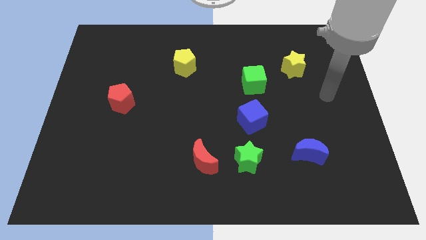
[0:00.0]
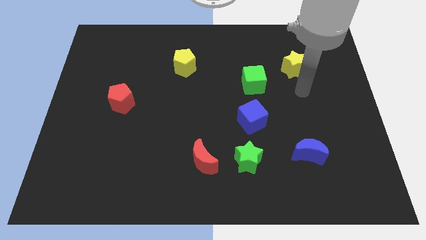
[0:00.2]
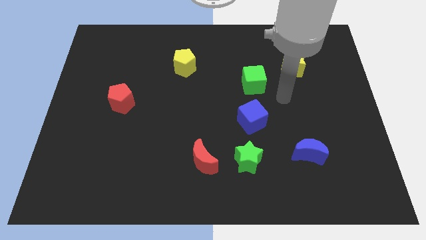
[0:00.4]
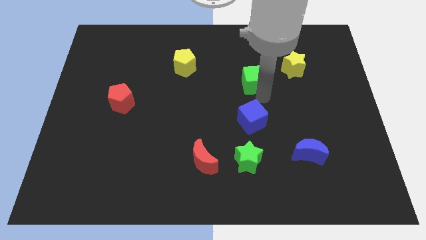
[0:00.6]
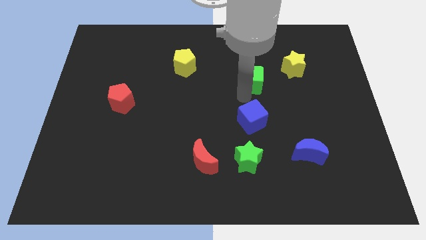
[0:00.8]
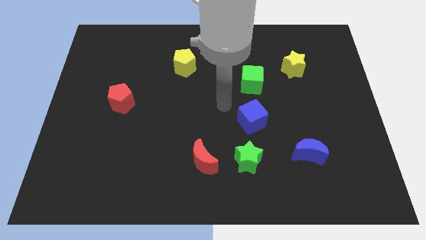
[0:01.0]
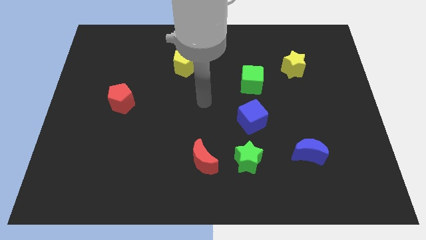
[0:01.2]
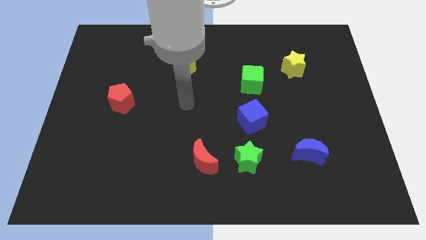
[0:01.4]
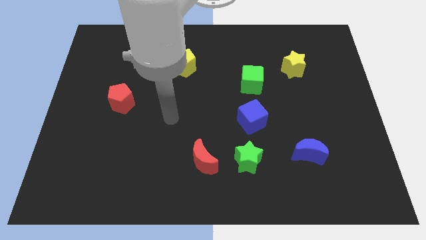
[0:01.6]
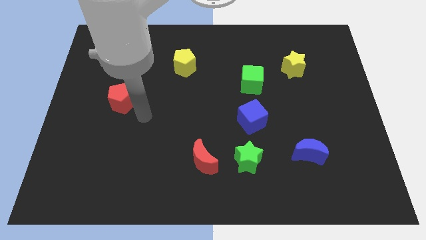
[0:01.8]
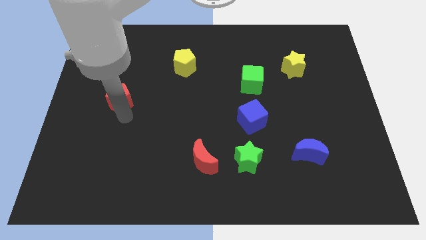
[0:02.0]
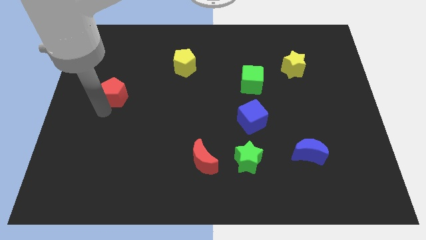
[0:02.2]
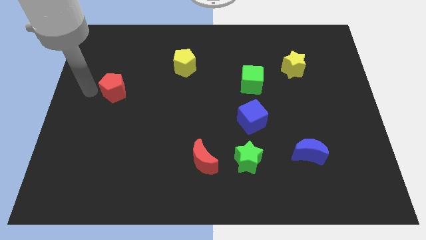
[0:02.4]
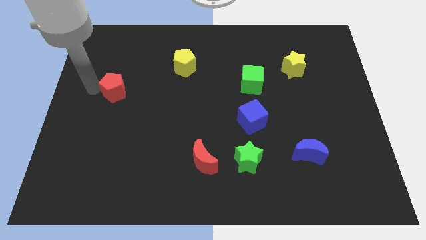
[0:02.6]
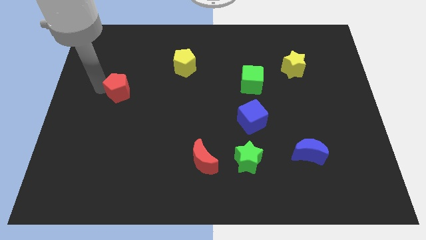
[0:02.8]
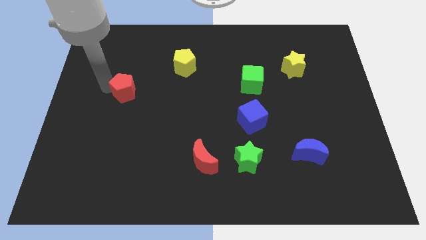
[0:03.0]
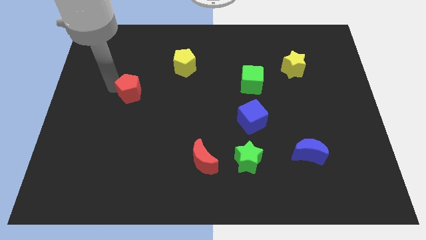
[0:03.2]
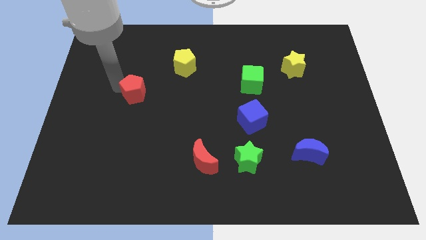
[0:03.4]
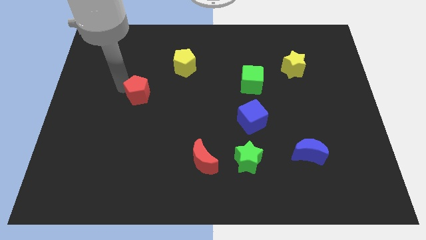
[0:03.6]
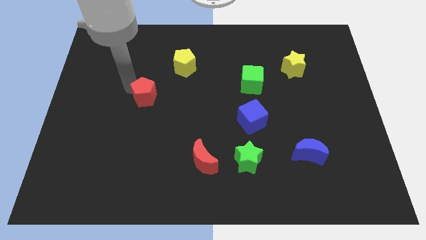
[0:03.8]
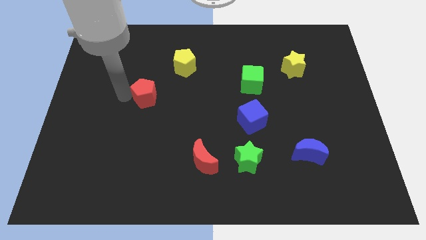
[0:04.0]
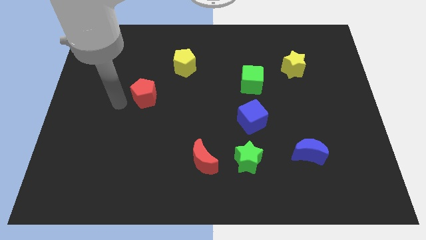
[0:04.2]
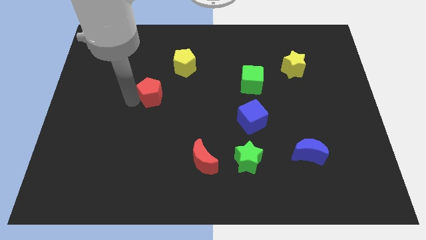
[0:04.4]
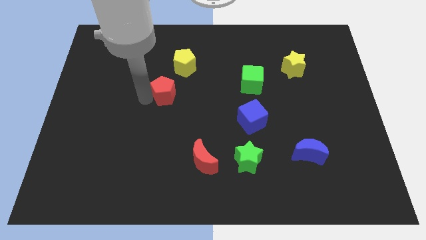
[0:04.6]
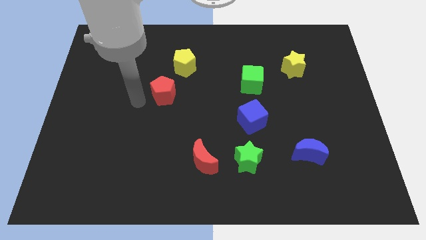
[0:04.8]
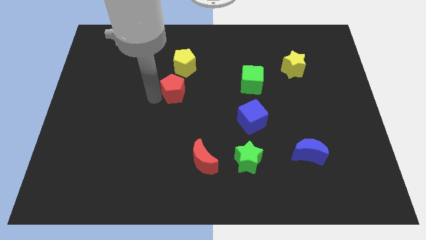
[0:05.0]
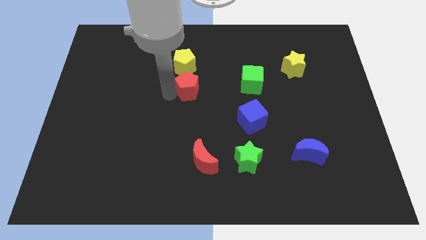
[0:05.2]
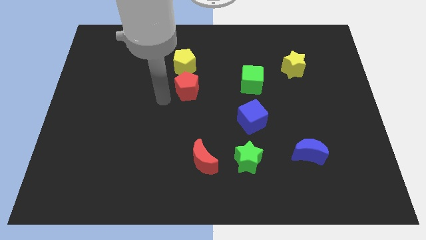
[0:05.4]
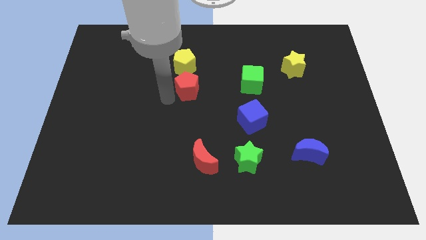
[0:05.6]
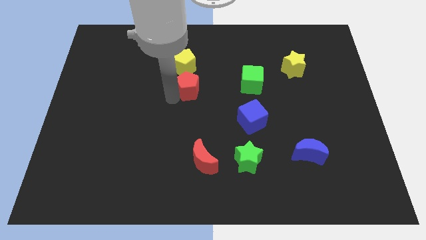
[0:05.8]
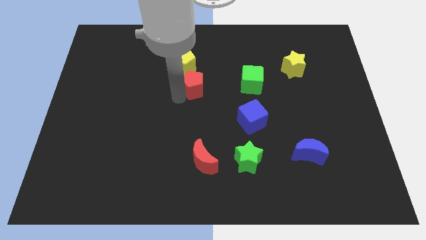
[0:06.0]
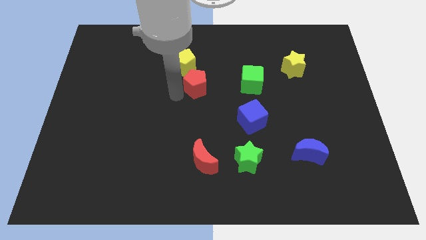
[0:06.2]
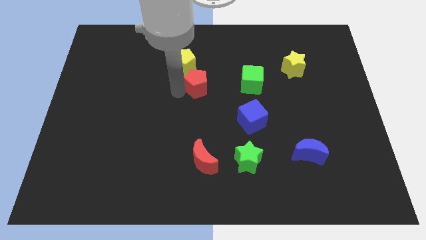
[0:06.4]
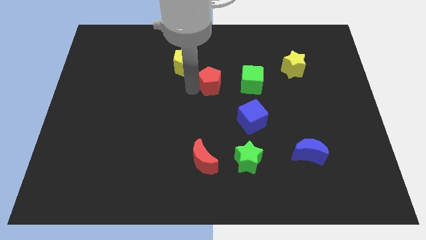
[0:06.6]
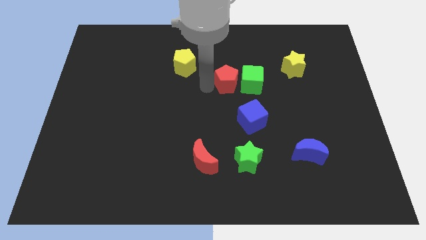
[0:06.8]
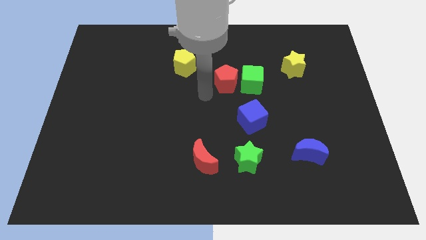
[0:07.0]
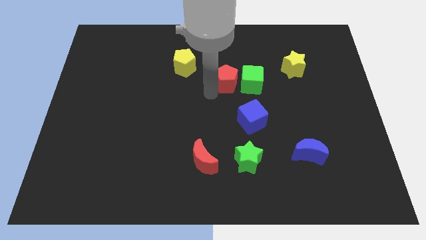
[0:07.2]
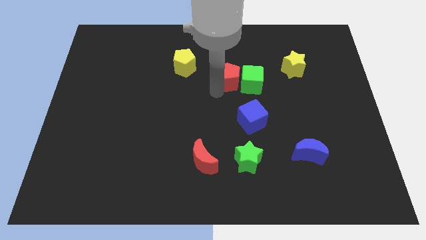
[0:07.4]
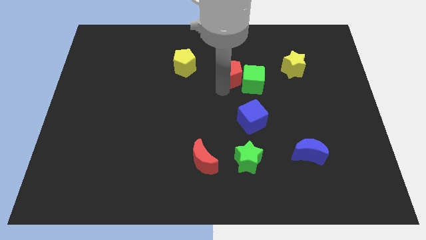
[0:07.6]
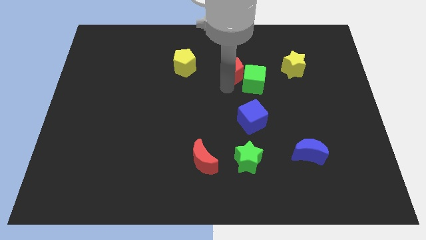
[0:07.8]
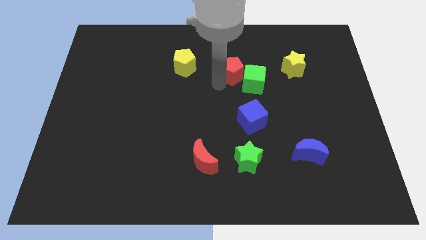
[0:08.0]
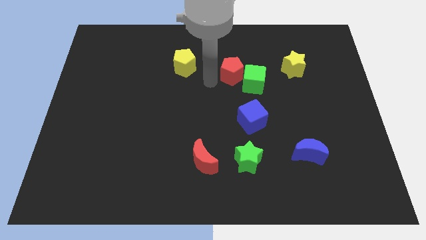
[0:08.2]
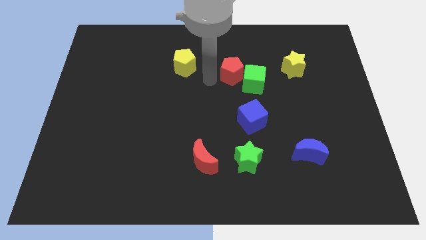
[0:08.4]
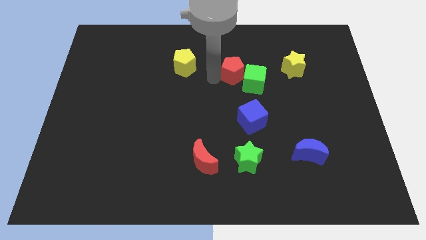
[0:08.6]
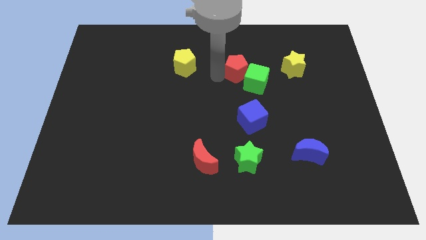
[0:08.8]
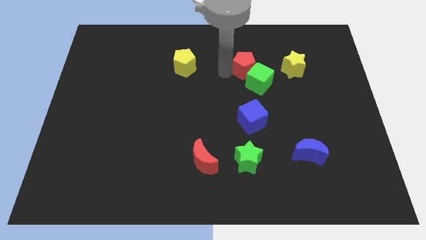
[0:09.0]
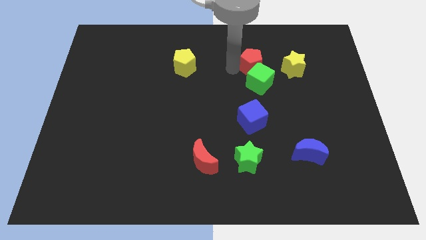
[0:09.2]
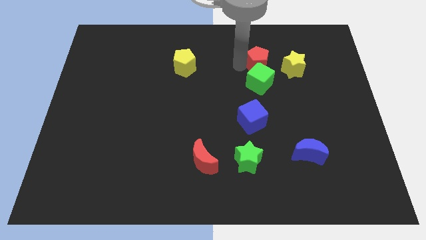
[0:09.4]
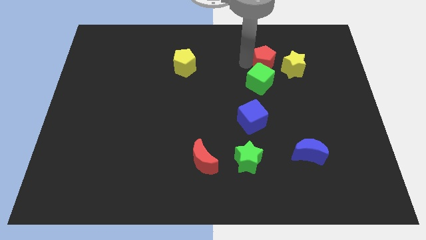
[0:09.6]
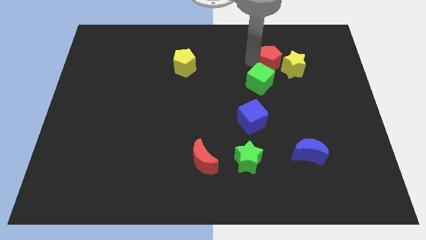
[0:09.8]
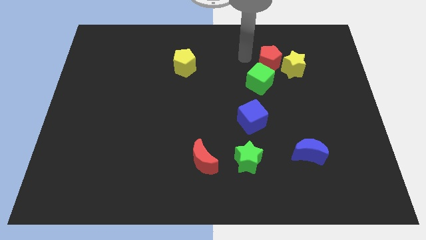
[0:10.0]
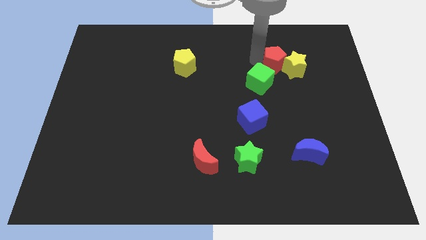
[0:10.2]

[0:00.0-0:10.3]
slide the red pentagon close to the yellow star

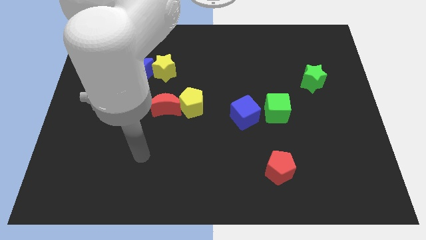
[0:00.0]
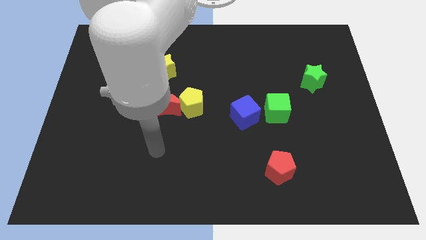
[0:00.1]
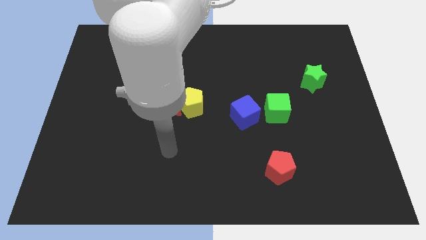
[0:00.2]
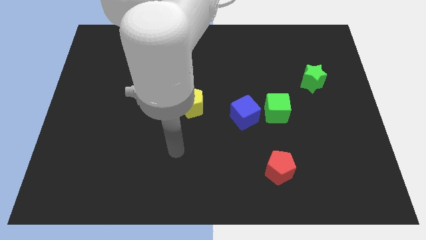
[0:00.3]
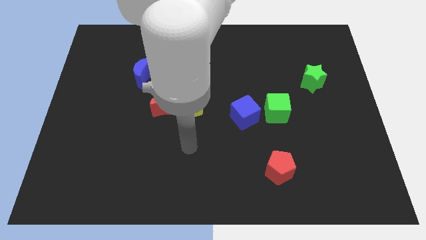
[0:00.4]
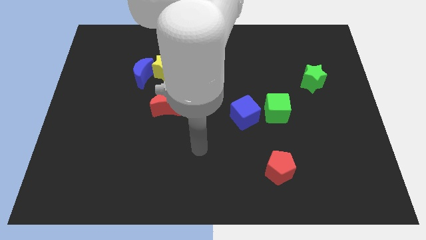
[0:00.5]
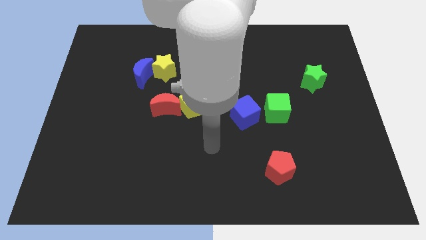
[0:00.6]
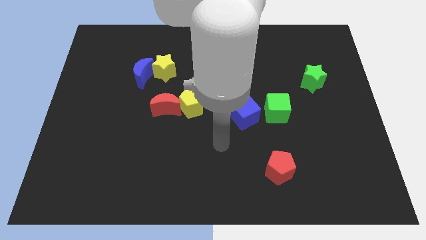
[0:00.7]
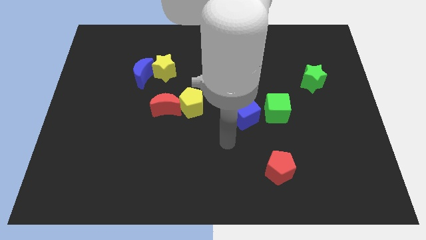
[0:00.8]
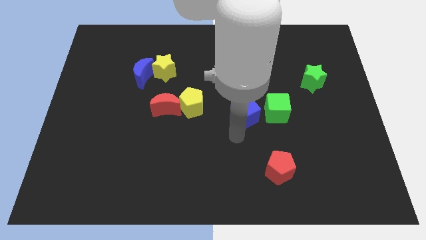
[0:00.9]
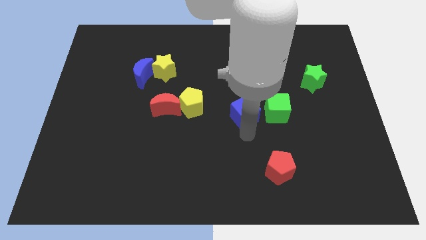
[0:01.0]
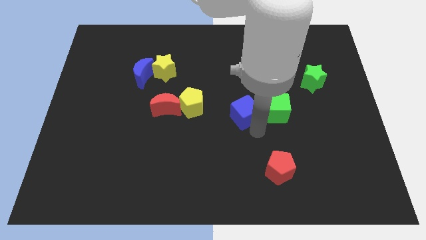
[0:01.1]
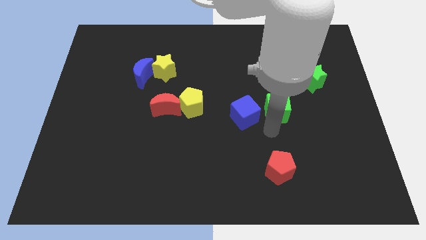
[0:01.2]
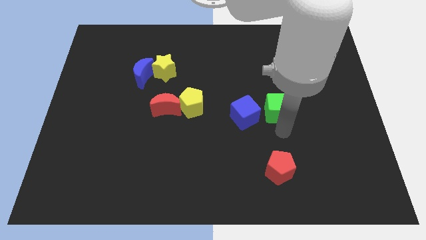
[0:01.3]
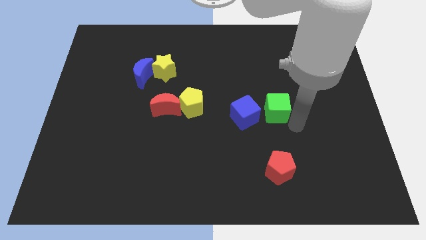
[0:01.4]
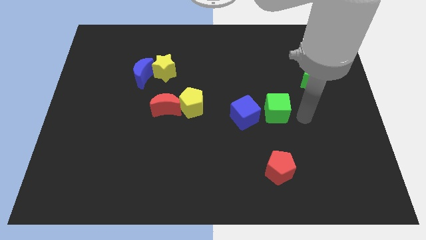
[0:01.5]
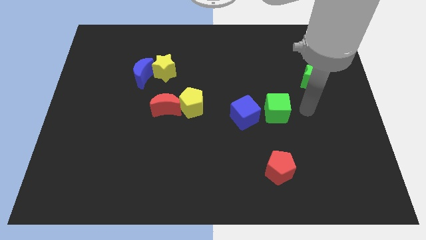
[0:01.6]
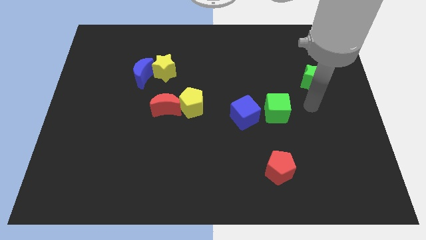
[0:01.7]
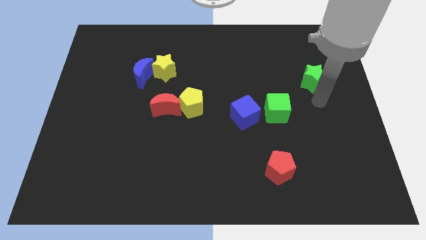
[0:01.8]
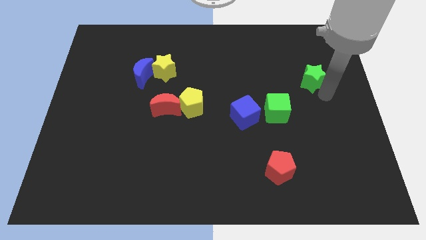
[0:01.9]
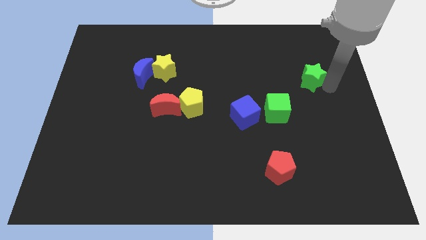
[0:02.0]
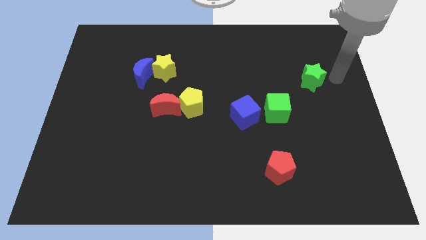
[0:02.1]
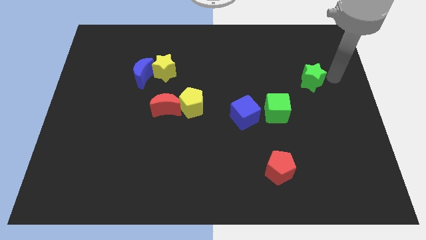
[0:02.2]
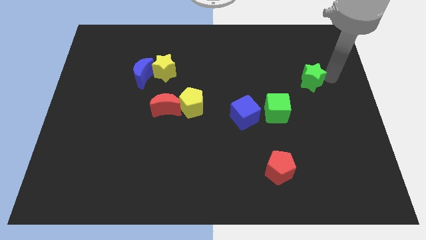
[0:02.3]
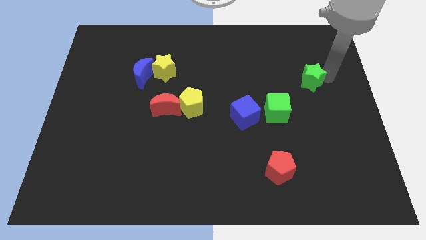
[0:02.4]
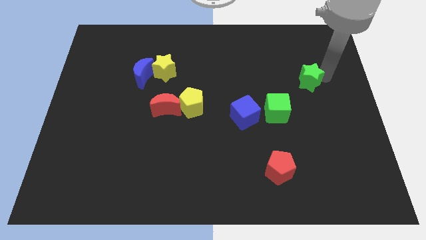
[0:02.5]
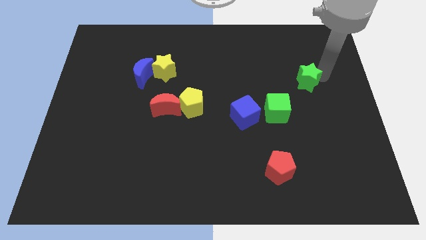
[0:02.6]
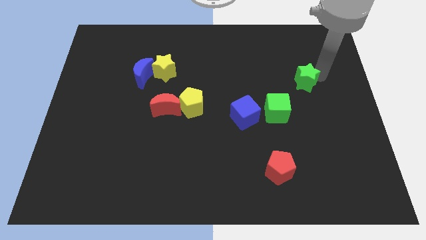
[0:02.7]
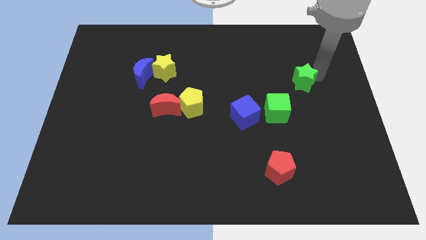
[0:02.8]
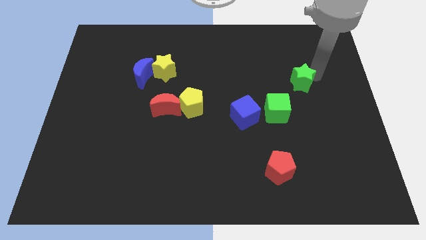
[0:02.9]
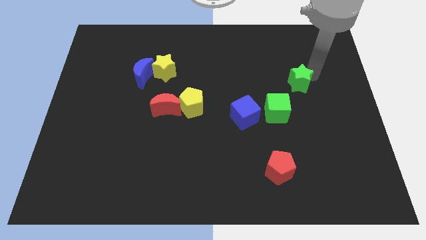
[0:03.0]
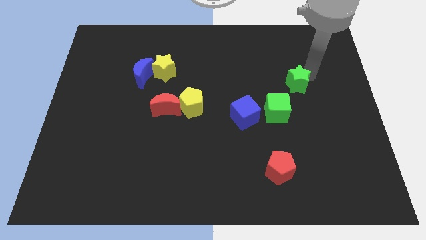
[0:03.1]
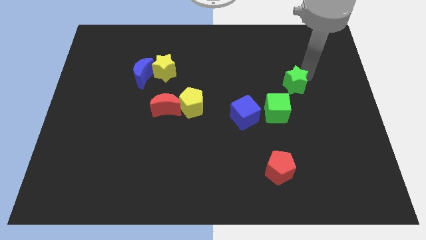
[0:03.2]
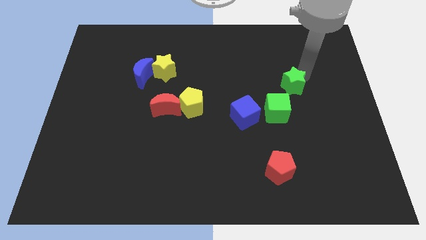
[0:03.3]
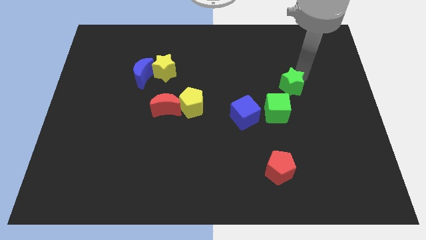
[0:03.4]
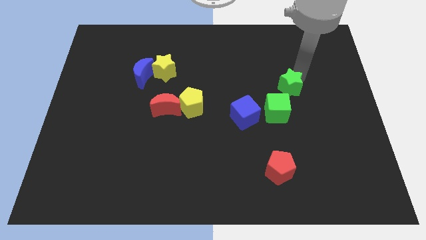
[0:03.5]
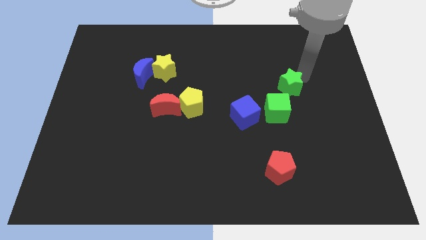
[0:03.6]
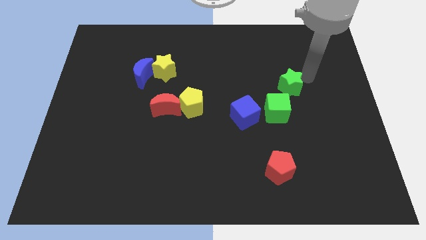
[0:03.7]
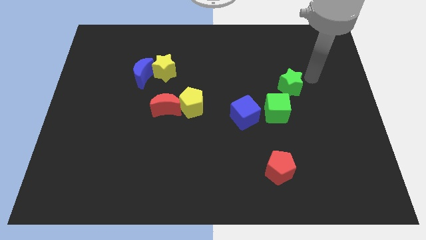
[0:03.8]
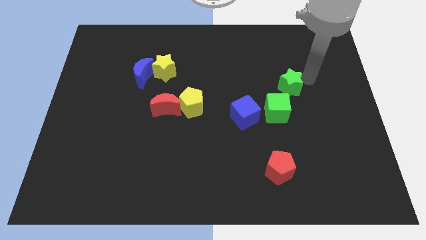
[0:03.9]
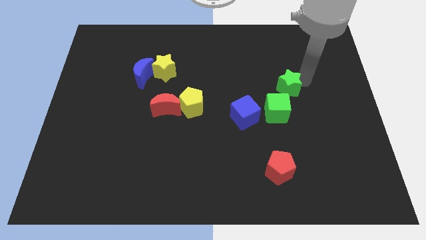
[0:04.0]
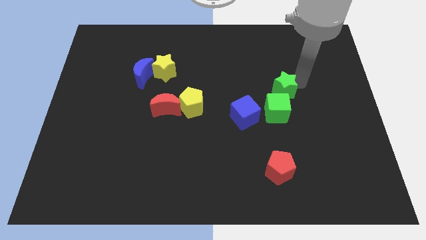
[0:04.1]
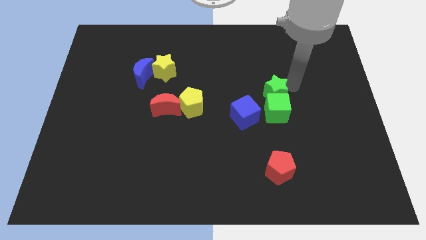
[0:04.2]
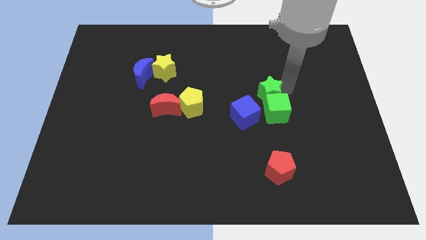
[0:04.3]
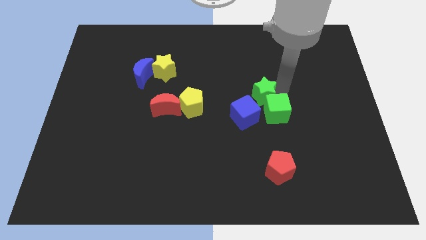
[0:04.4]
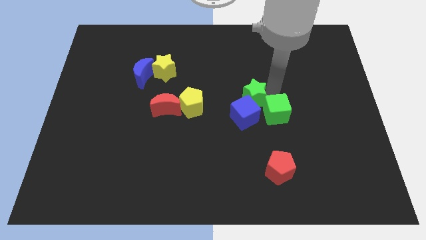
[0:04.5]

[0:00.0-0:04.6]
put the green star close to the blue cube
